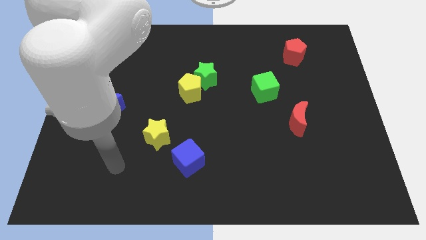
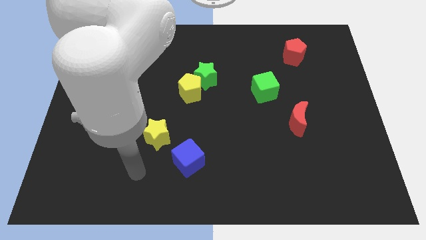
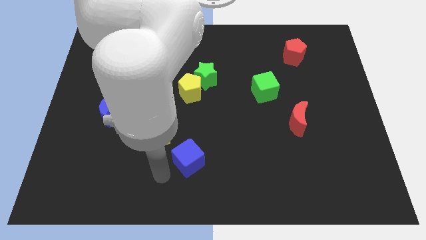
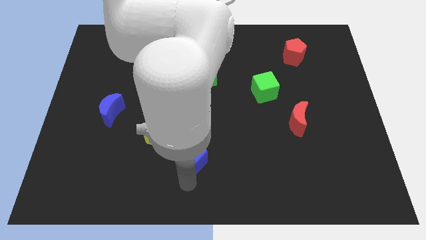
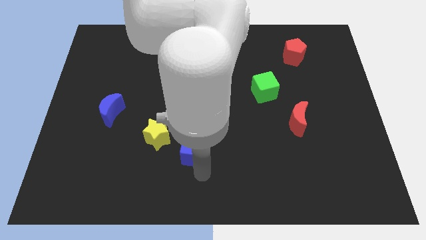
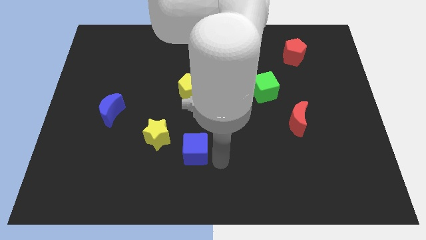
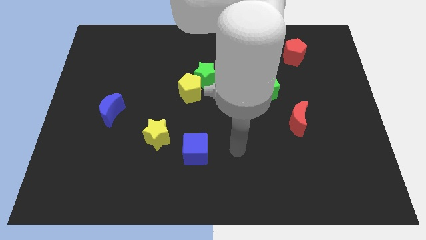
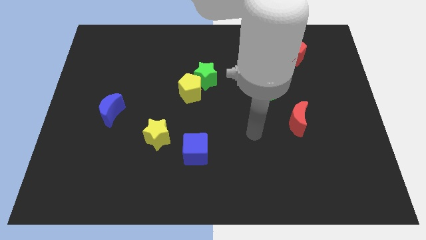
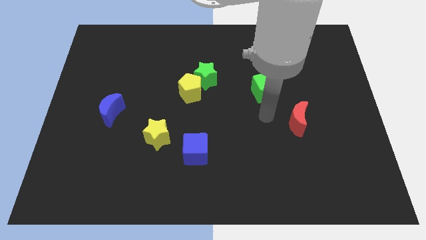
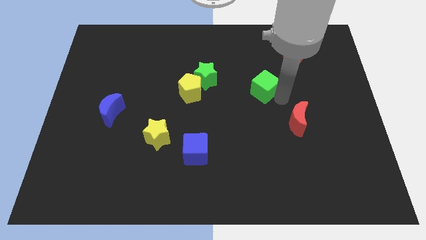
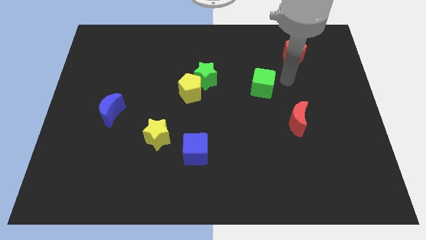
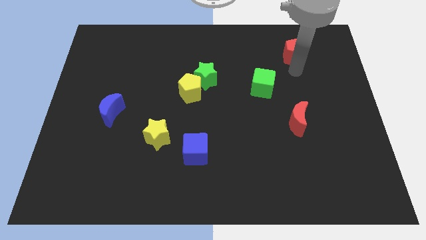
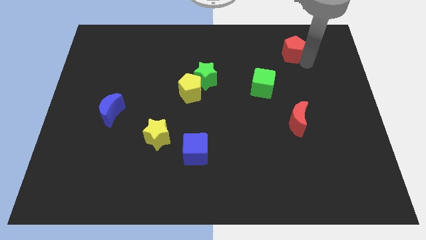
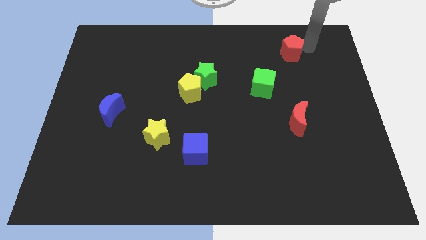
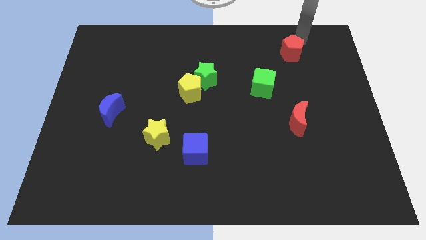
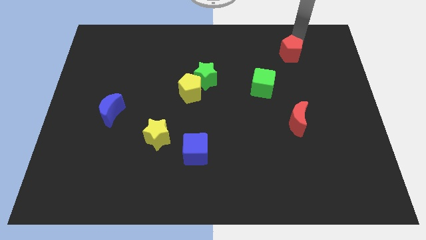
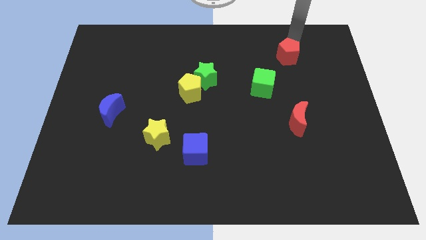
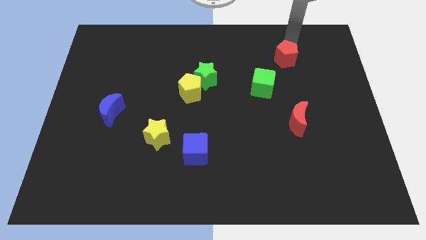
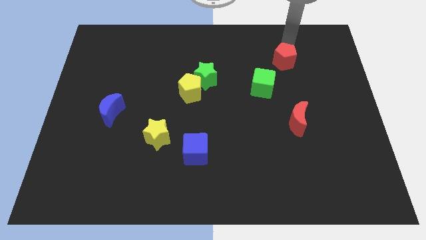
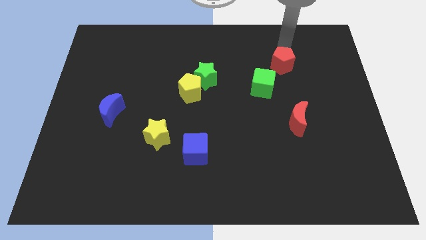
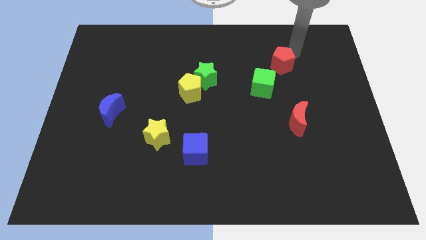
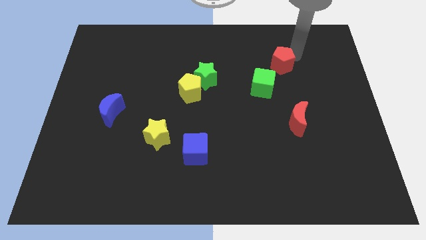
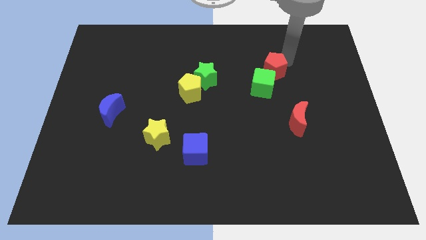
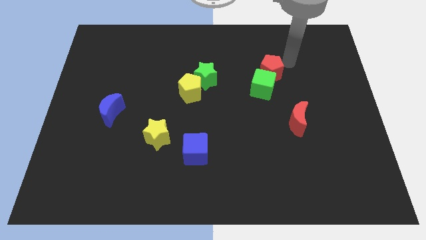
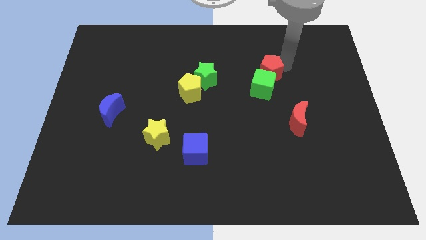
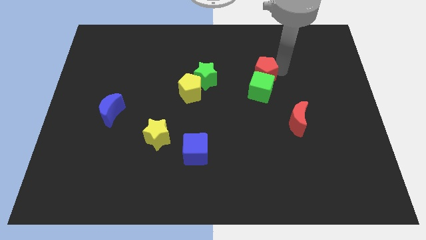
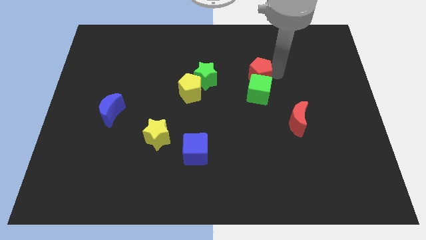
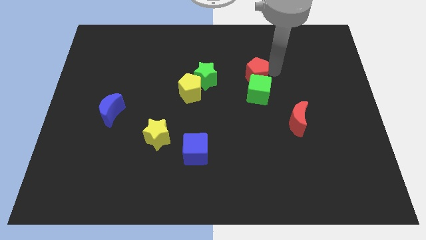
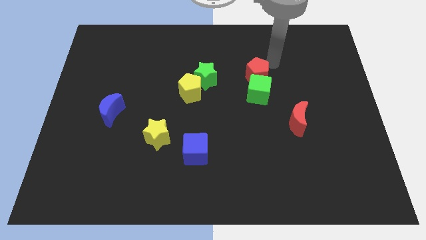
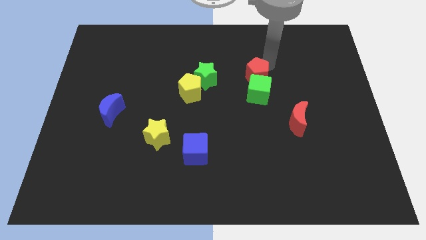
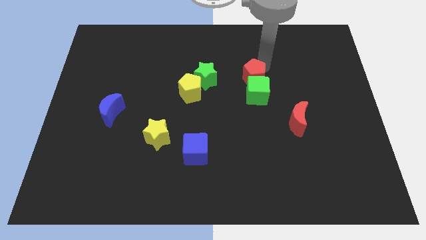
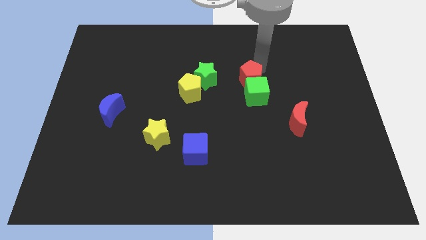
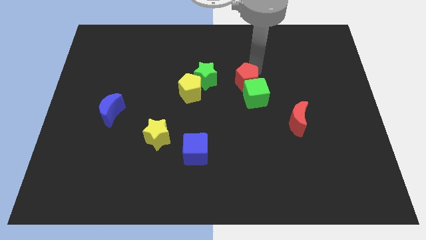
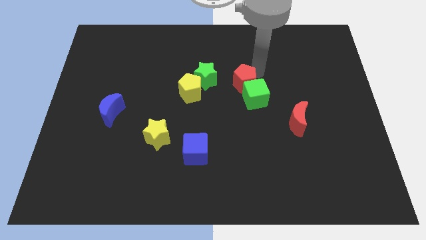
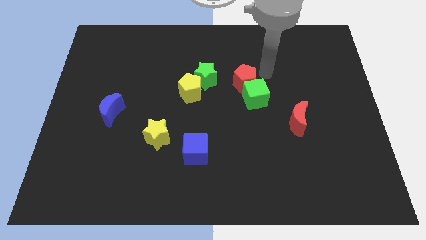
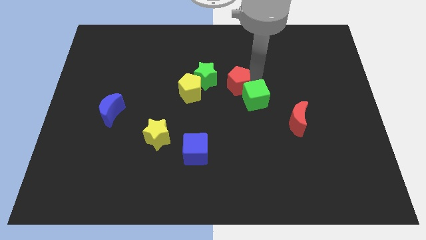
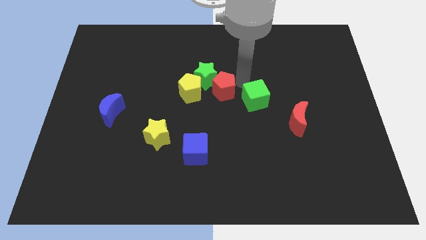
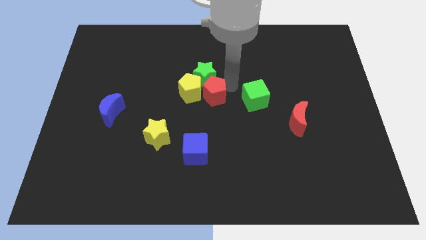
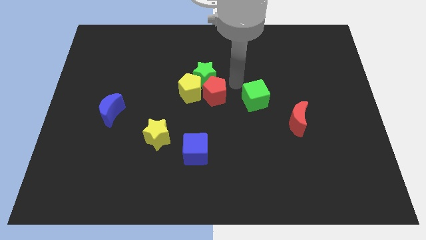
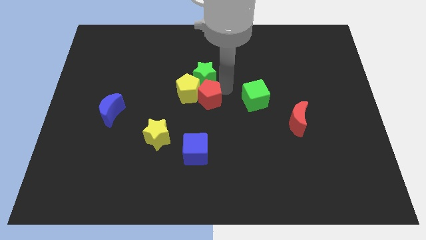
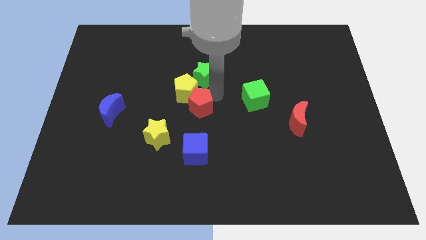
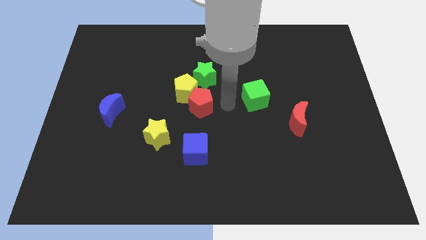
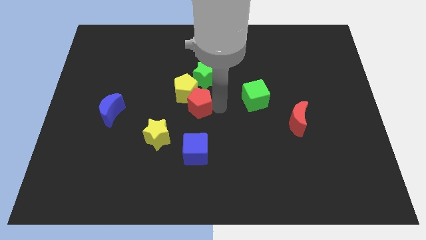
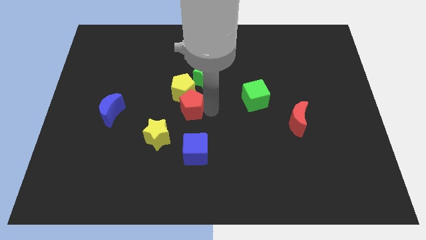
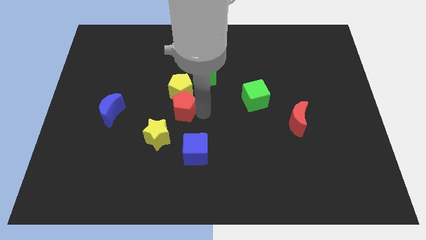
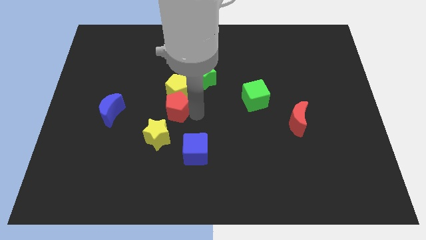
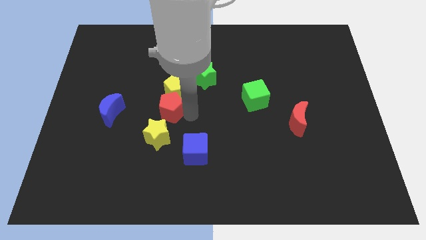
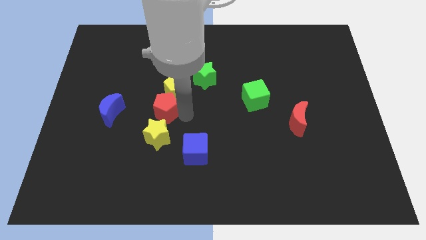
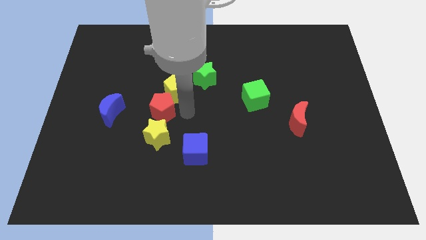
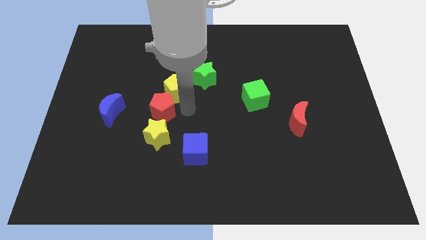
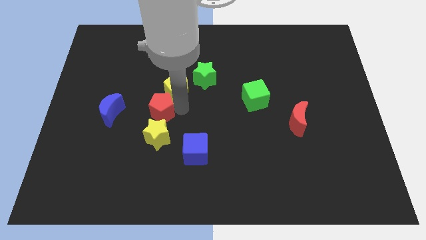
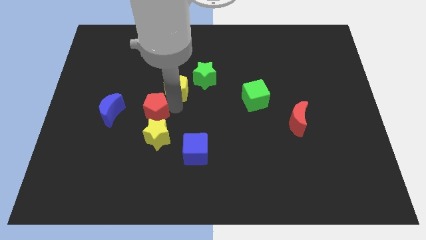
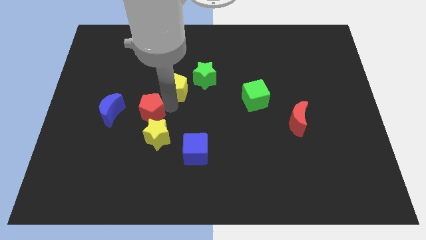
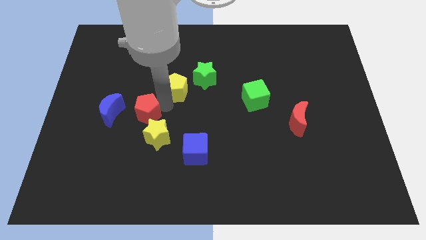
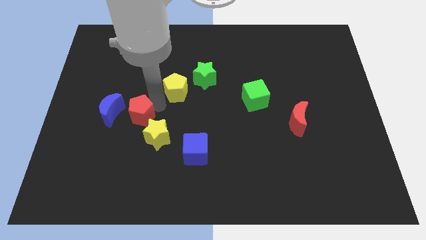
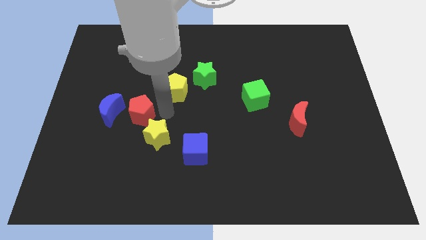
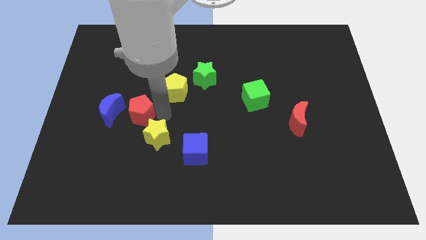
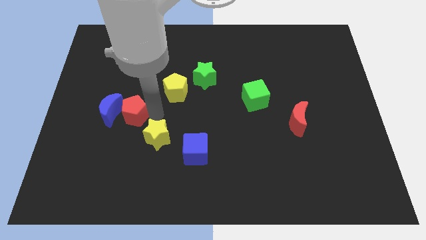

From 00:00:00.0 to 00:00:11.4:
put the red pentagon to the blue moon

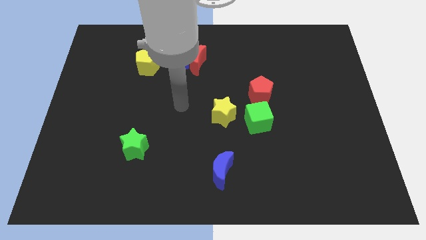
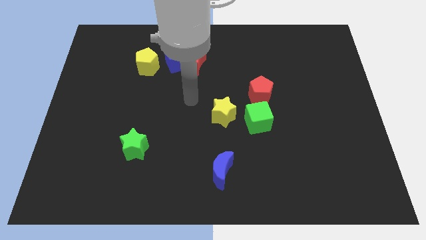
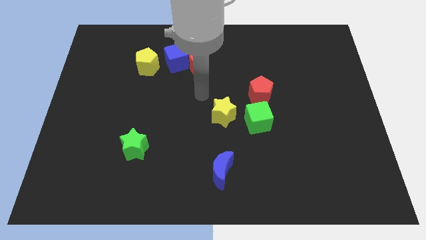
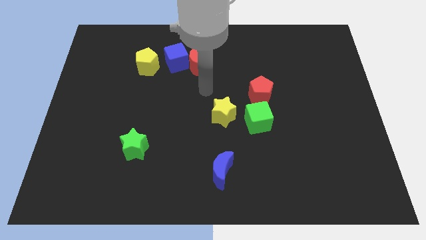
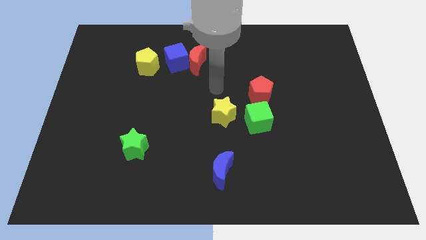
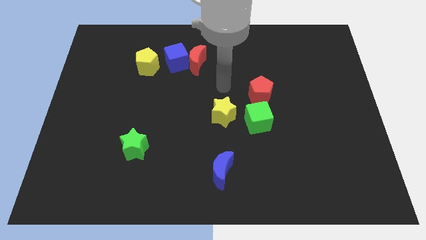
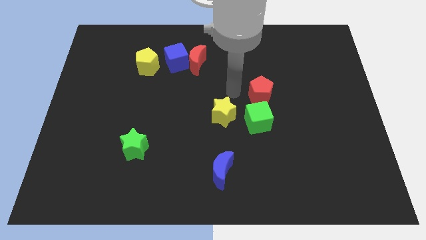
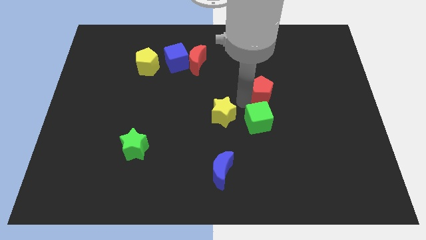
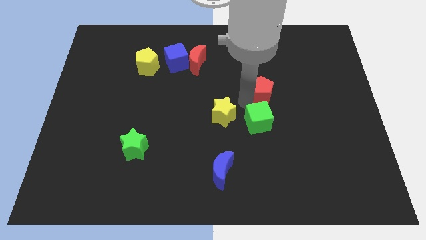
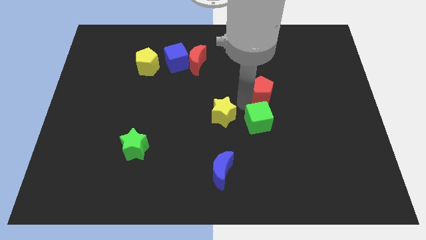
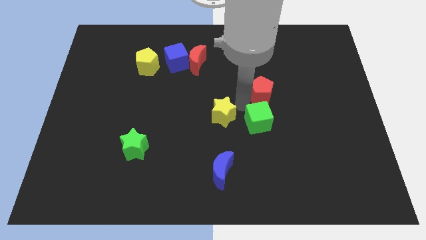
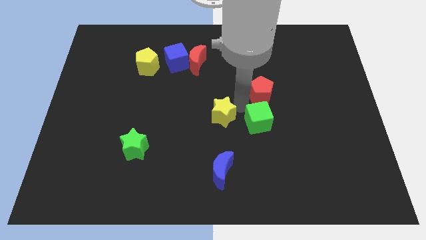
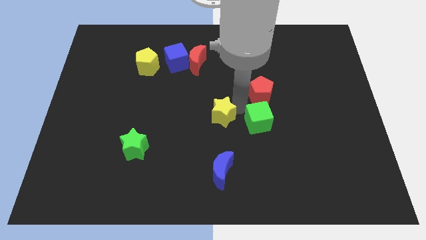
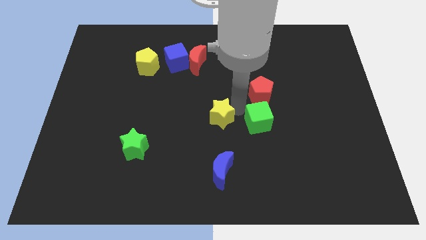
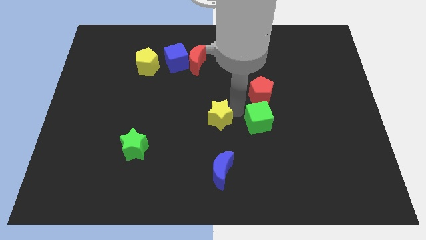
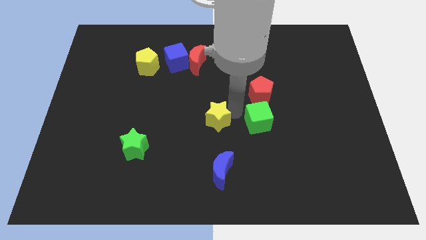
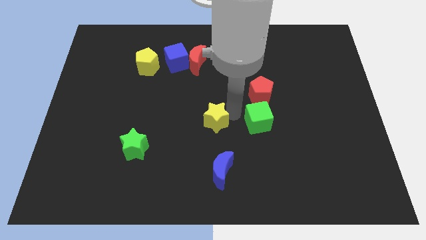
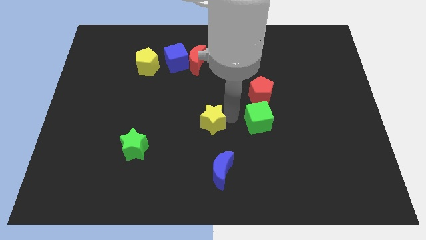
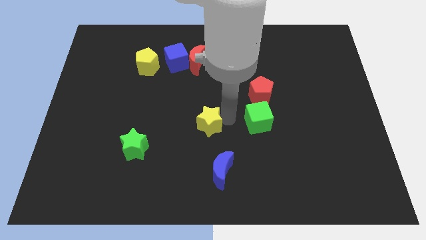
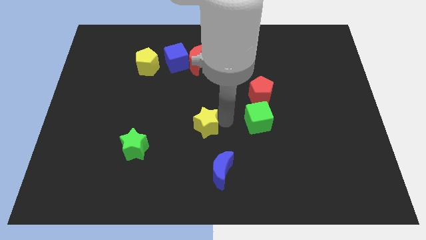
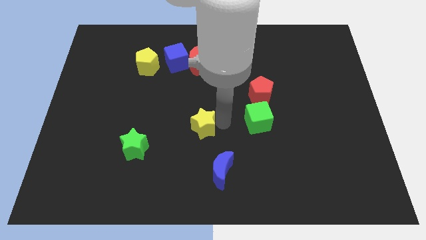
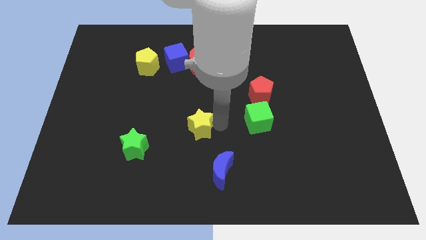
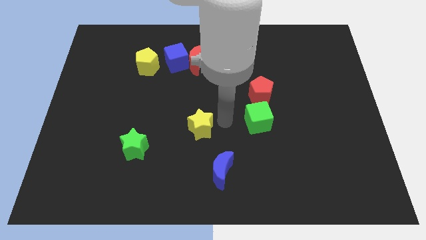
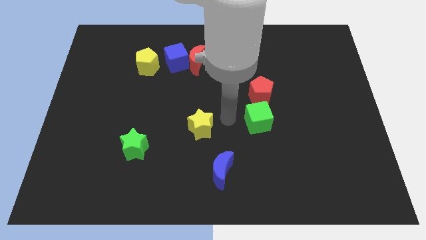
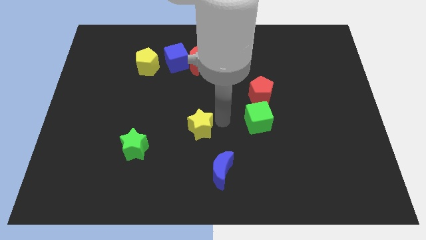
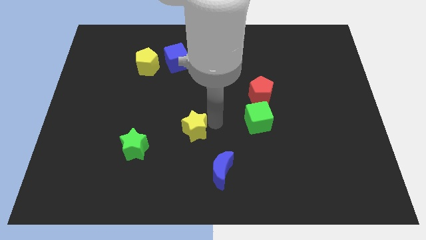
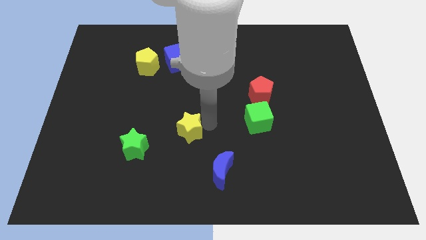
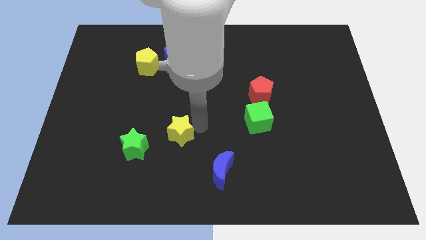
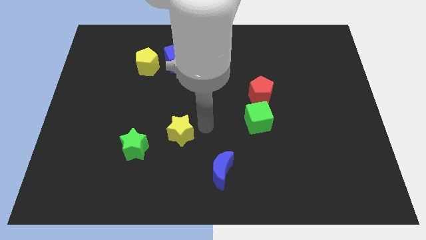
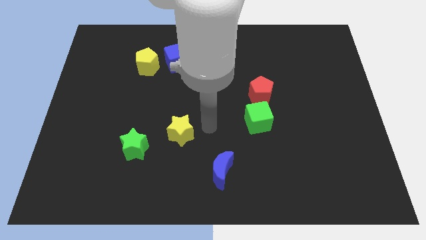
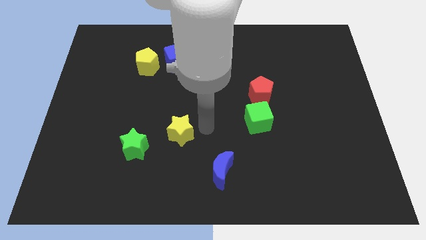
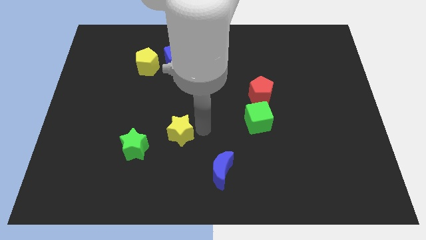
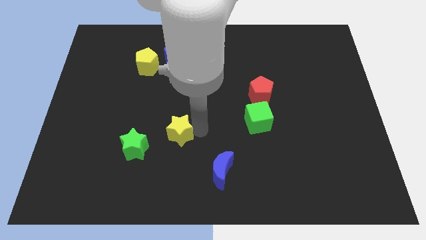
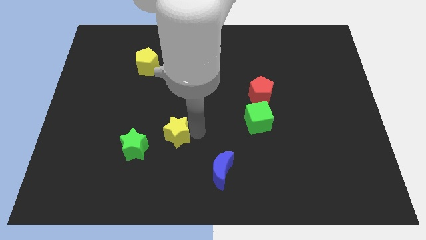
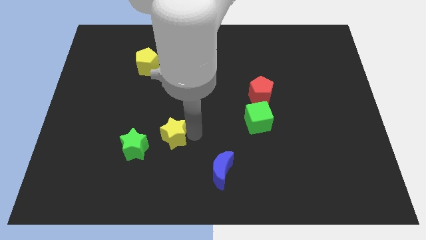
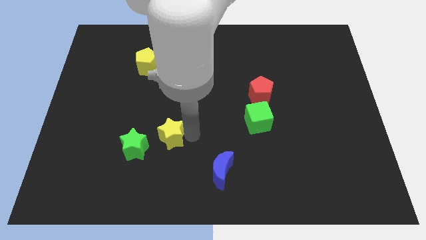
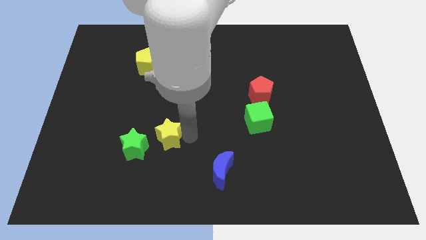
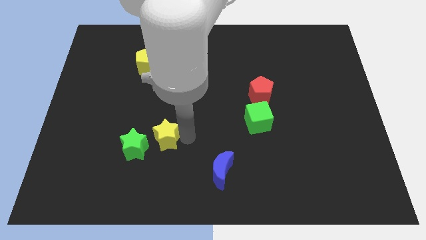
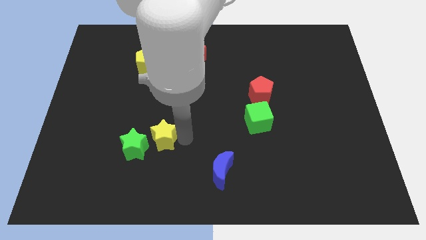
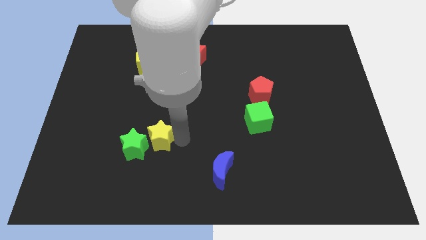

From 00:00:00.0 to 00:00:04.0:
push the yellow star towards the green star
